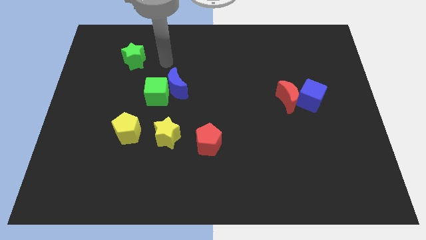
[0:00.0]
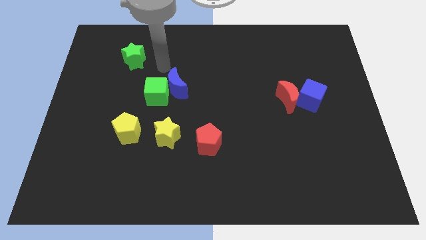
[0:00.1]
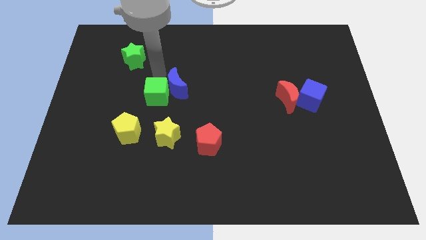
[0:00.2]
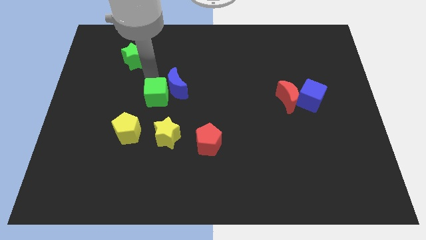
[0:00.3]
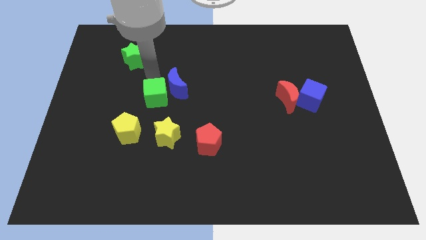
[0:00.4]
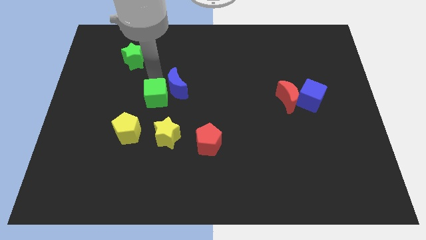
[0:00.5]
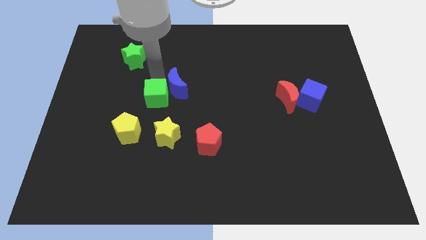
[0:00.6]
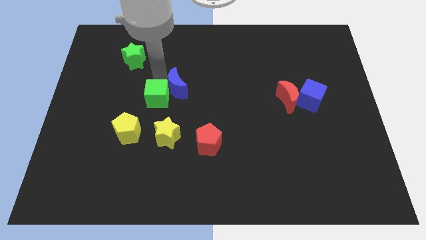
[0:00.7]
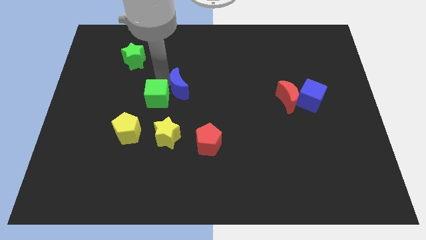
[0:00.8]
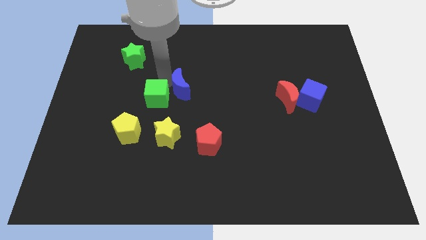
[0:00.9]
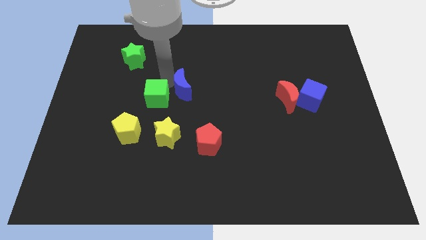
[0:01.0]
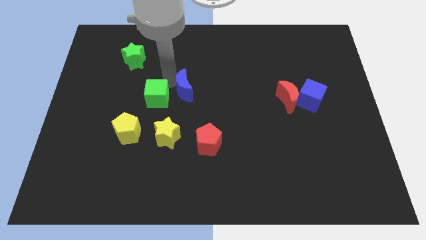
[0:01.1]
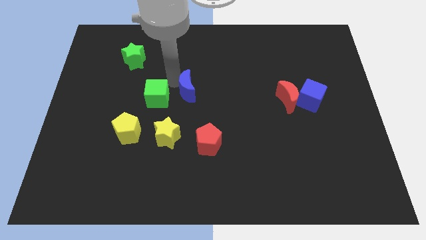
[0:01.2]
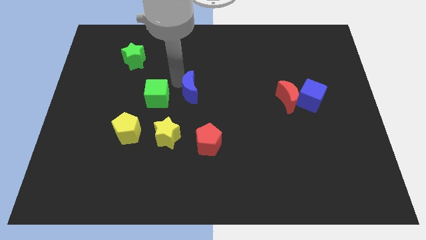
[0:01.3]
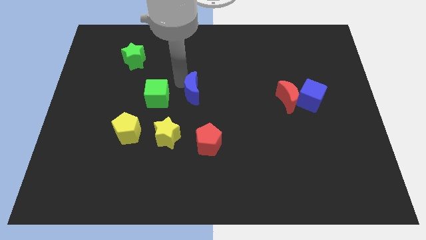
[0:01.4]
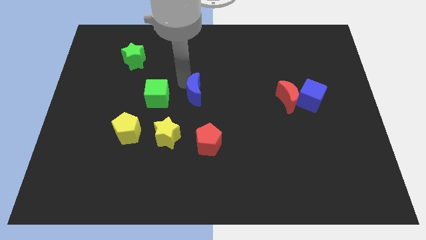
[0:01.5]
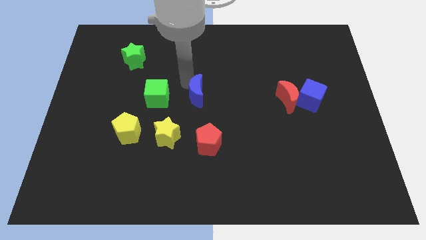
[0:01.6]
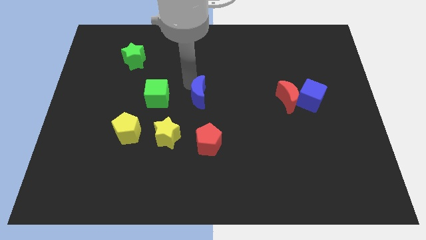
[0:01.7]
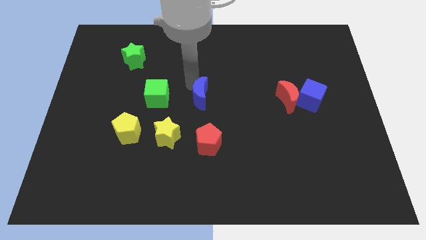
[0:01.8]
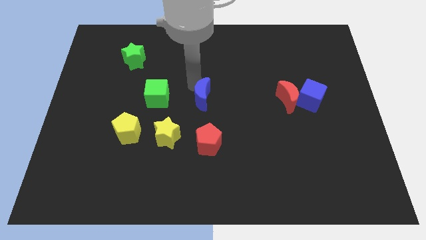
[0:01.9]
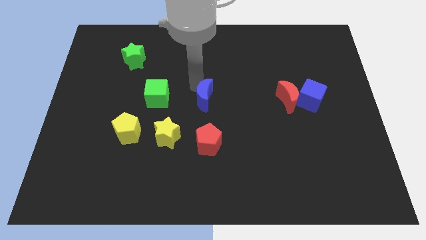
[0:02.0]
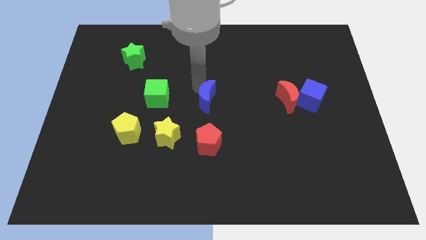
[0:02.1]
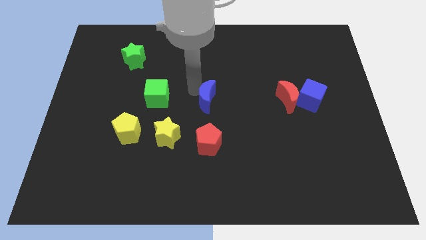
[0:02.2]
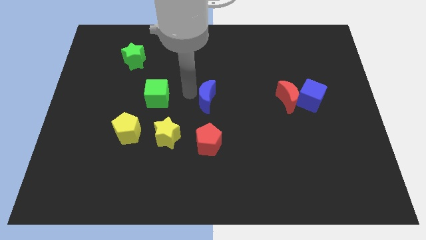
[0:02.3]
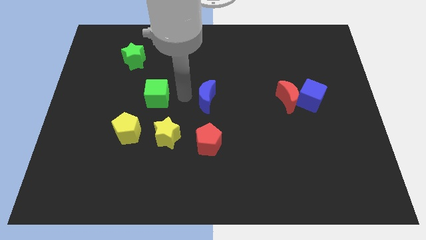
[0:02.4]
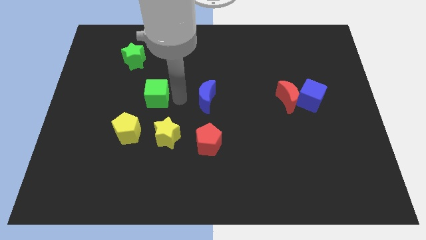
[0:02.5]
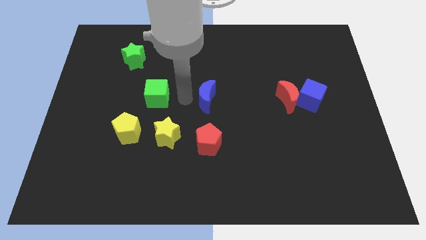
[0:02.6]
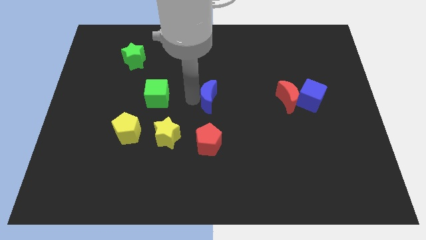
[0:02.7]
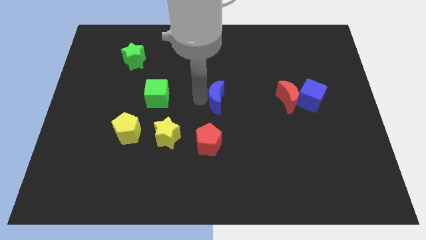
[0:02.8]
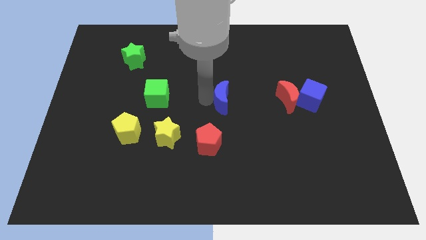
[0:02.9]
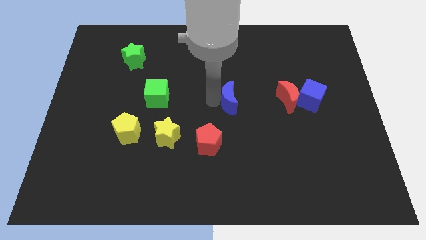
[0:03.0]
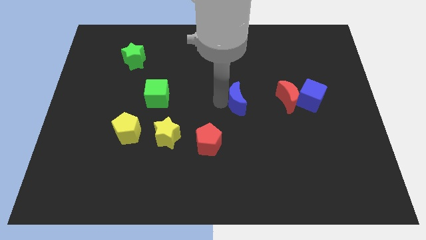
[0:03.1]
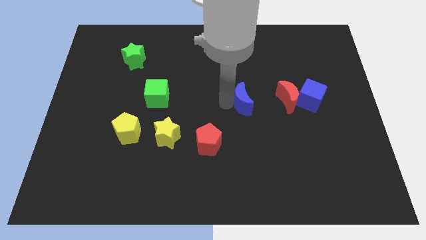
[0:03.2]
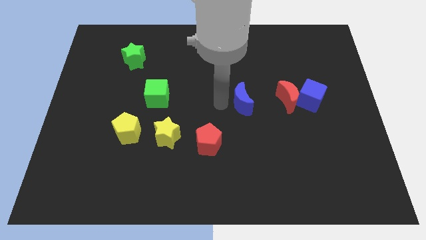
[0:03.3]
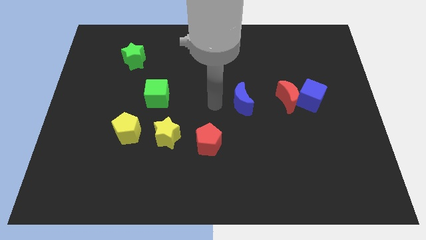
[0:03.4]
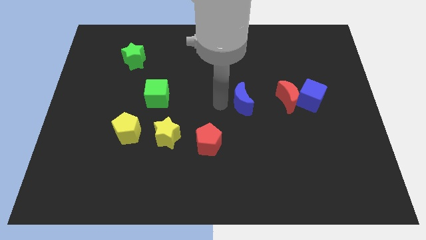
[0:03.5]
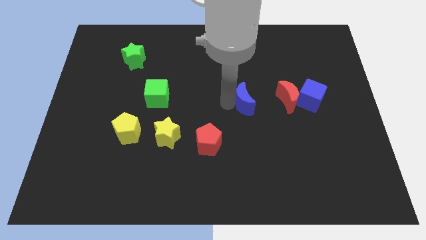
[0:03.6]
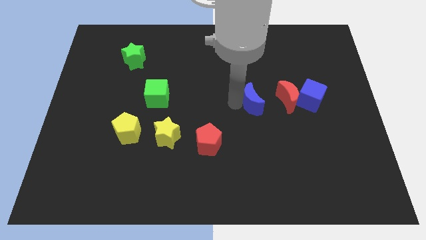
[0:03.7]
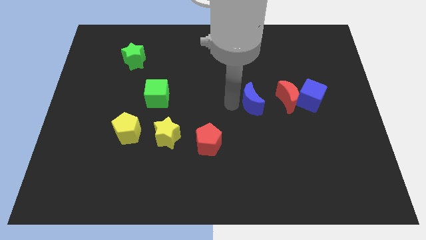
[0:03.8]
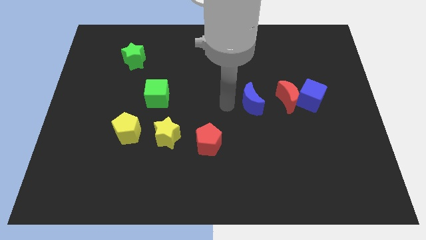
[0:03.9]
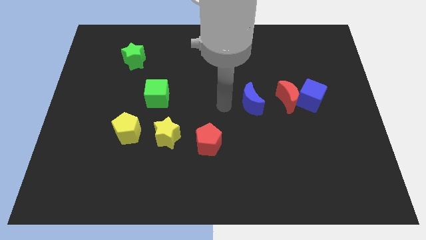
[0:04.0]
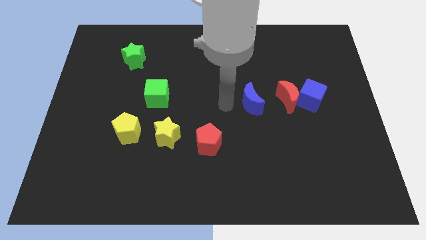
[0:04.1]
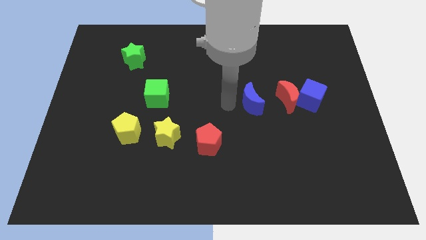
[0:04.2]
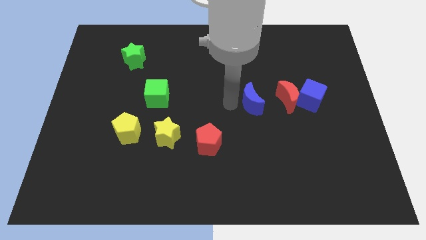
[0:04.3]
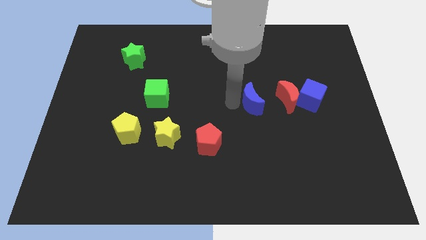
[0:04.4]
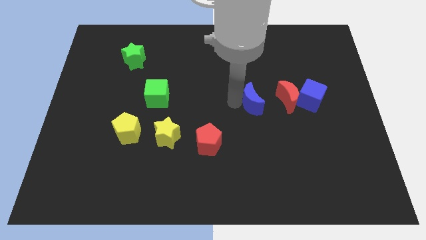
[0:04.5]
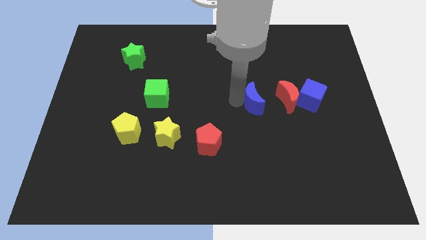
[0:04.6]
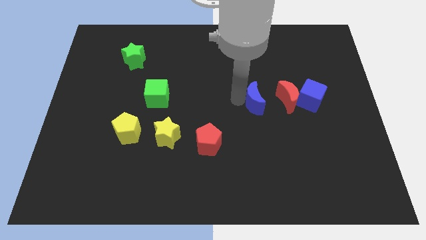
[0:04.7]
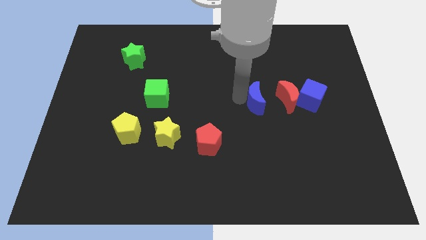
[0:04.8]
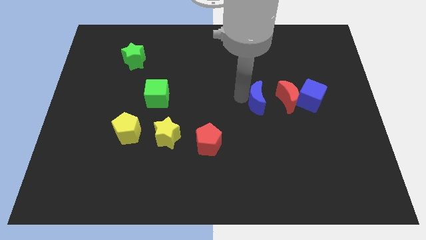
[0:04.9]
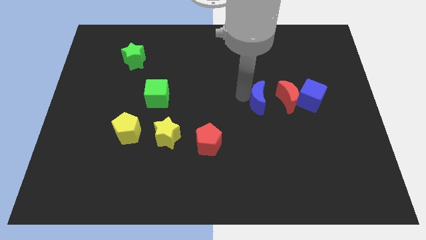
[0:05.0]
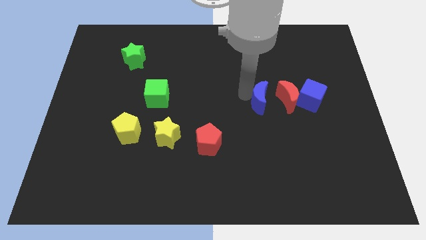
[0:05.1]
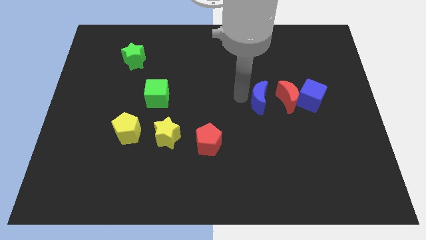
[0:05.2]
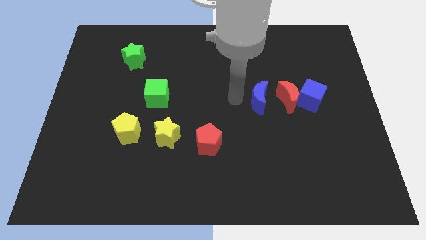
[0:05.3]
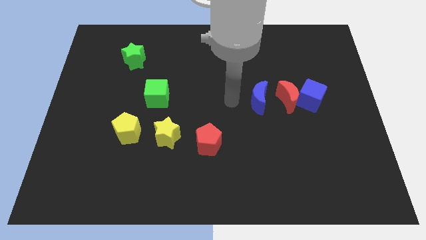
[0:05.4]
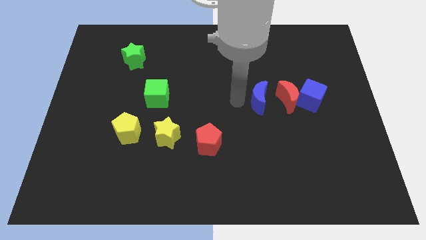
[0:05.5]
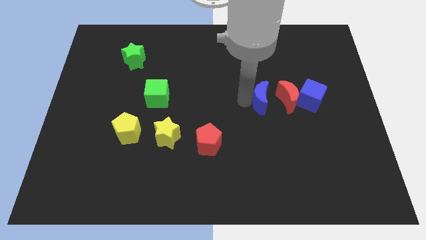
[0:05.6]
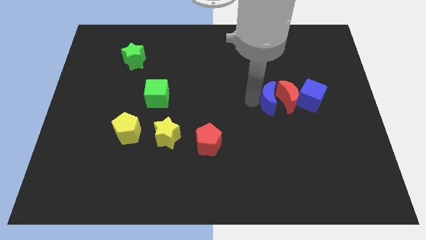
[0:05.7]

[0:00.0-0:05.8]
move the blue moon towards the red moon

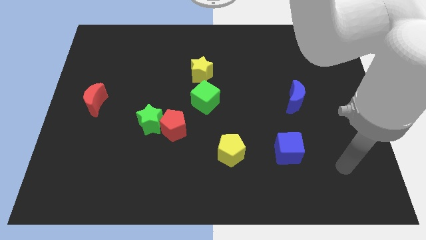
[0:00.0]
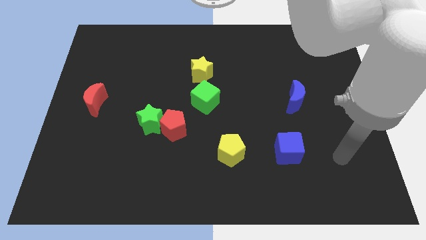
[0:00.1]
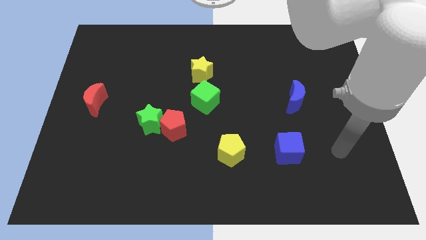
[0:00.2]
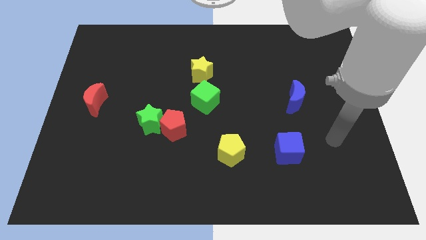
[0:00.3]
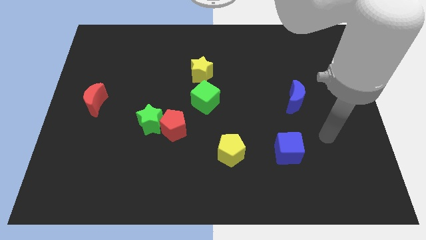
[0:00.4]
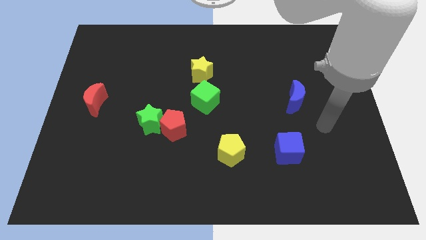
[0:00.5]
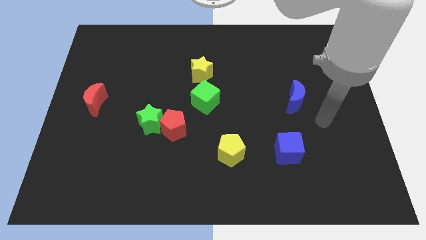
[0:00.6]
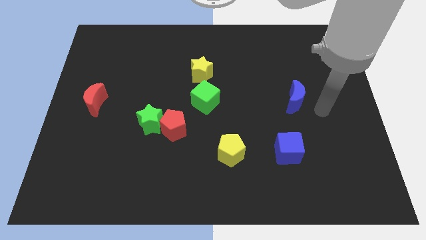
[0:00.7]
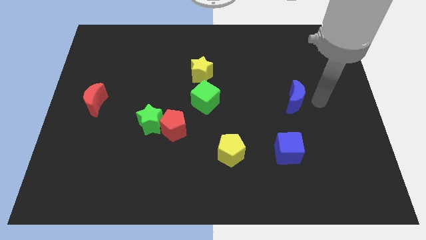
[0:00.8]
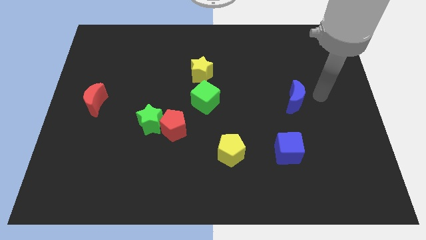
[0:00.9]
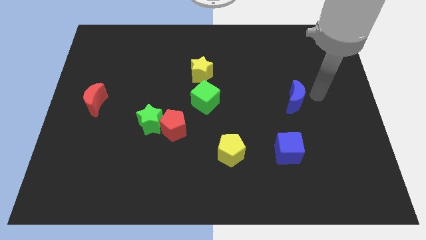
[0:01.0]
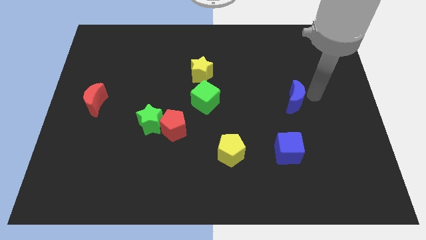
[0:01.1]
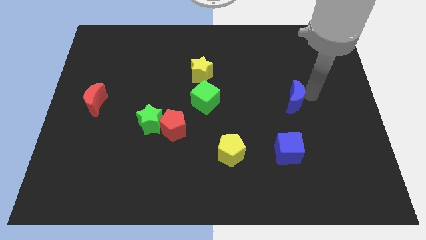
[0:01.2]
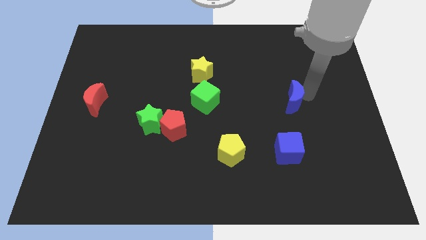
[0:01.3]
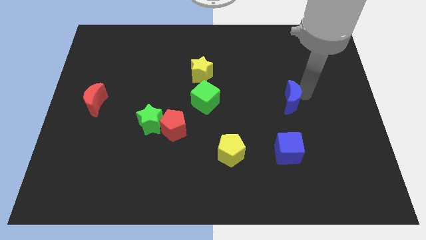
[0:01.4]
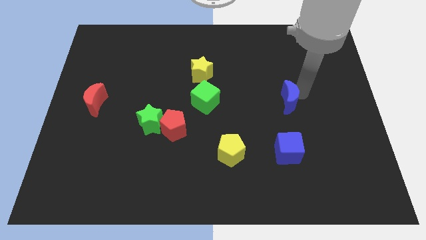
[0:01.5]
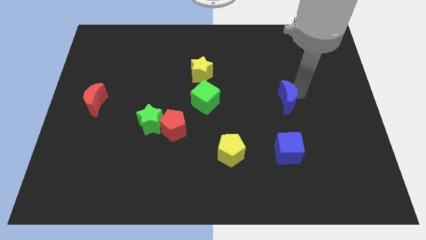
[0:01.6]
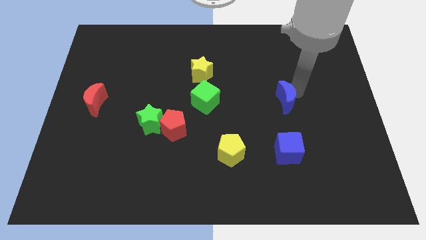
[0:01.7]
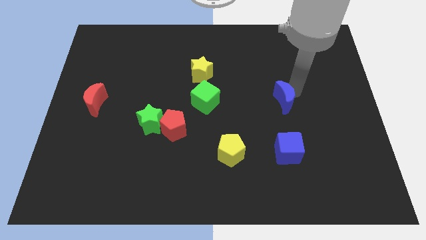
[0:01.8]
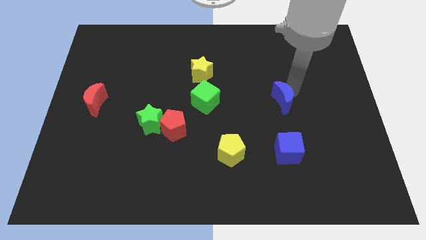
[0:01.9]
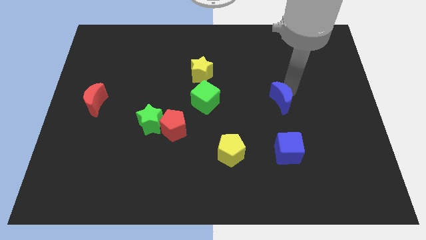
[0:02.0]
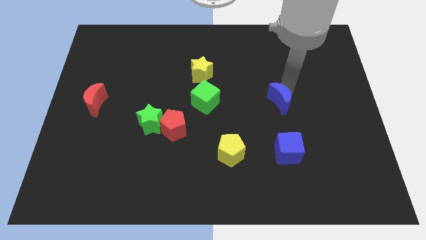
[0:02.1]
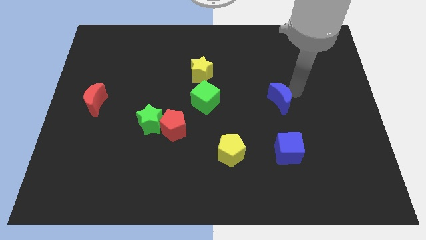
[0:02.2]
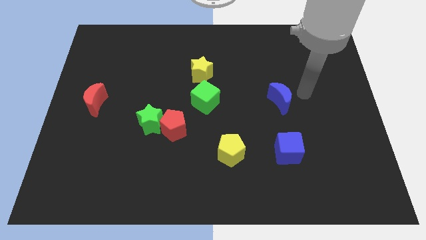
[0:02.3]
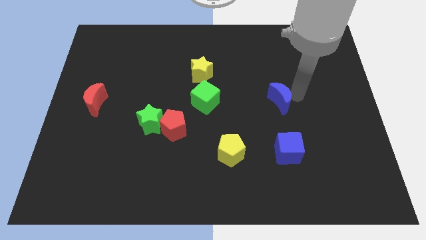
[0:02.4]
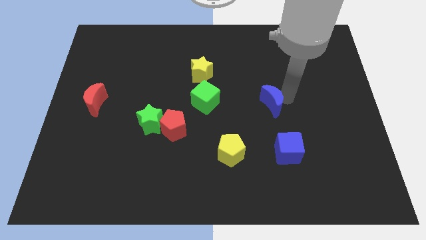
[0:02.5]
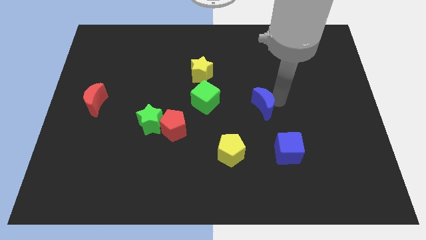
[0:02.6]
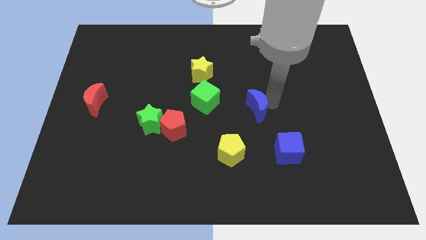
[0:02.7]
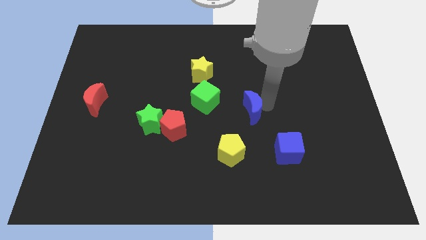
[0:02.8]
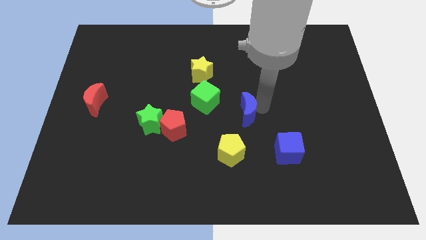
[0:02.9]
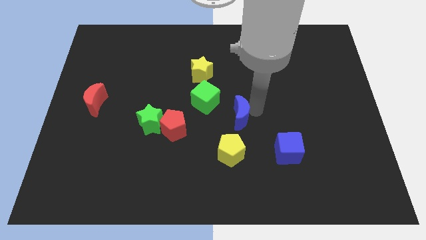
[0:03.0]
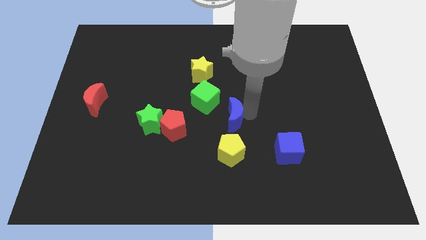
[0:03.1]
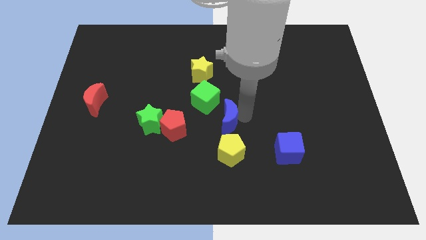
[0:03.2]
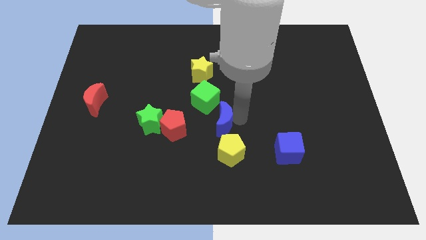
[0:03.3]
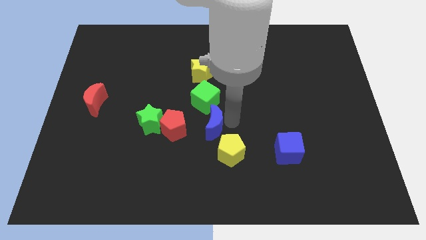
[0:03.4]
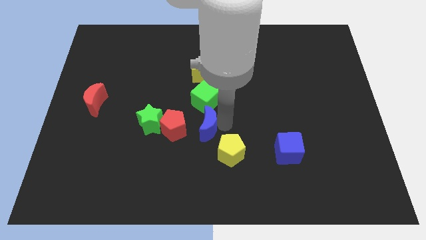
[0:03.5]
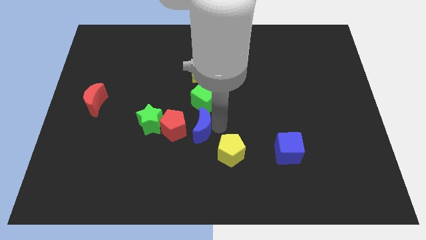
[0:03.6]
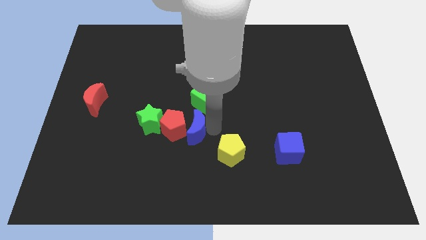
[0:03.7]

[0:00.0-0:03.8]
slide the blue moon close to the red pentagon
